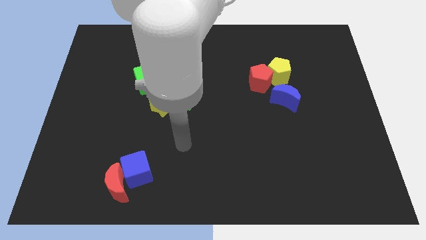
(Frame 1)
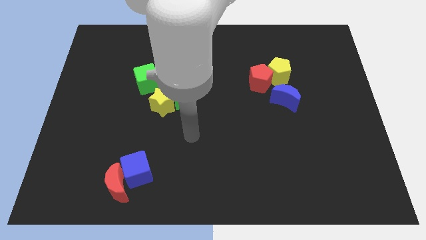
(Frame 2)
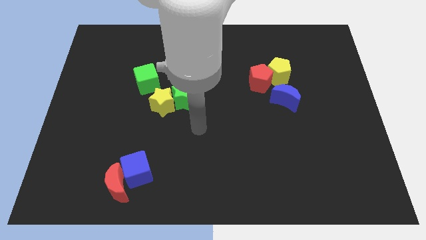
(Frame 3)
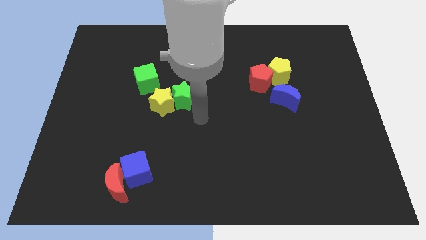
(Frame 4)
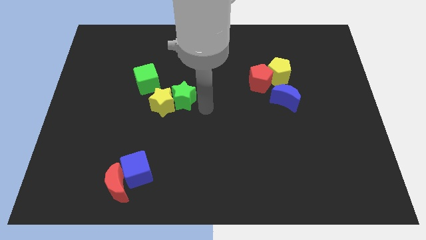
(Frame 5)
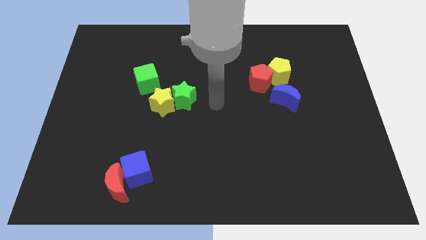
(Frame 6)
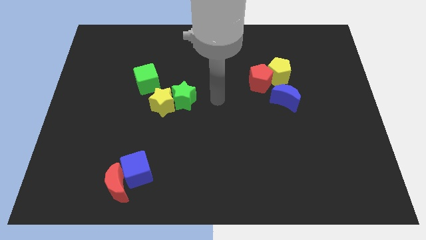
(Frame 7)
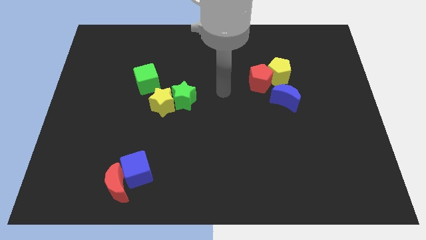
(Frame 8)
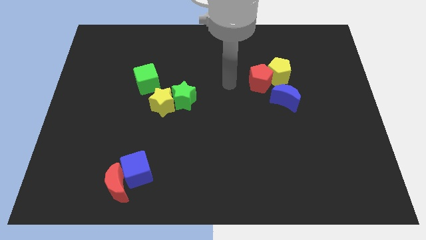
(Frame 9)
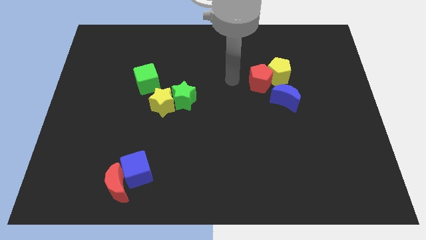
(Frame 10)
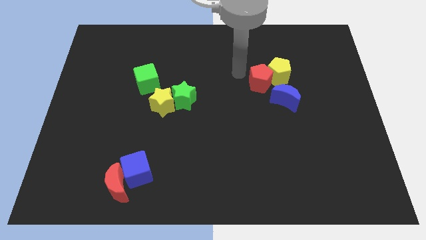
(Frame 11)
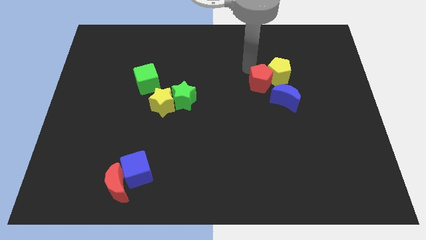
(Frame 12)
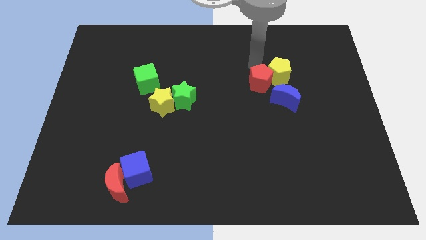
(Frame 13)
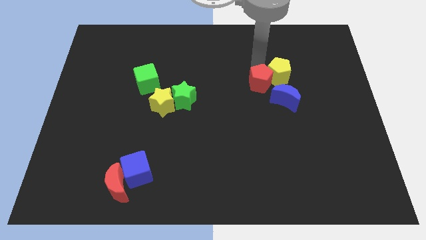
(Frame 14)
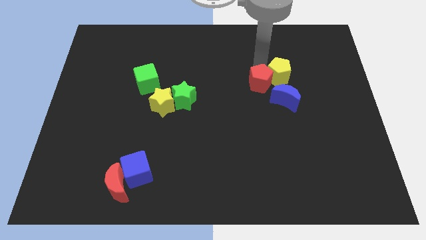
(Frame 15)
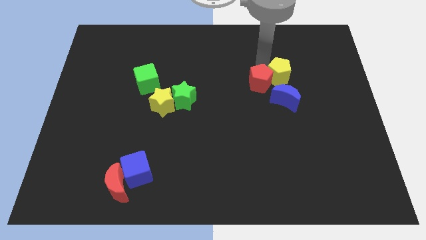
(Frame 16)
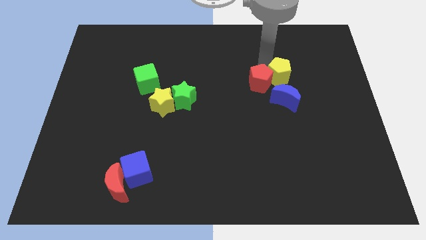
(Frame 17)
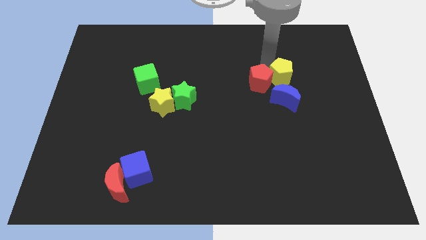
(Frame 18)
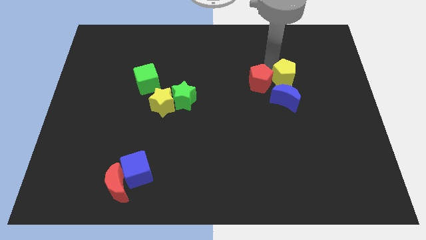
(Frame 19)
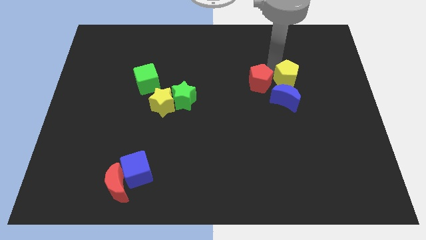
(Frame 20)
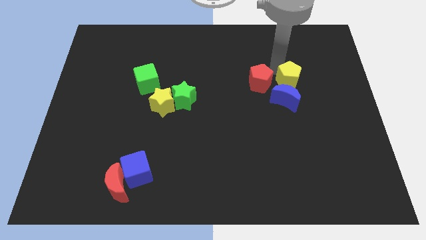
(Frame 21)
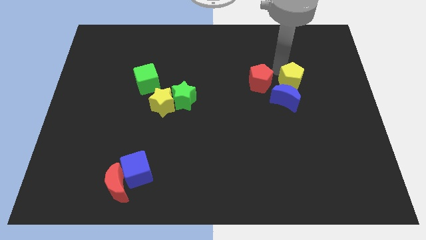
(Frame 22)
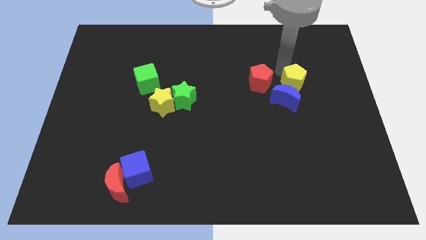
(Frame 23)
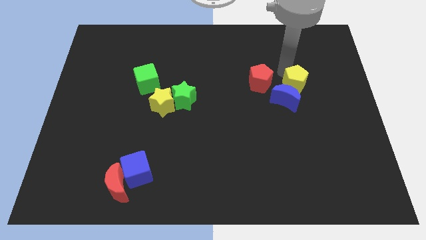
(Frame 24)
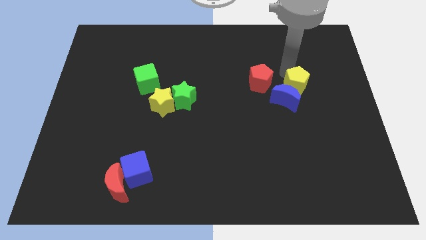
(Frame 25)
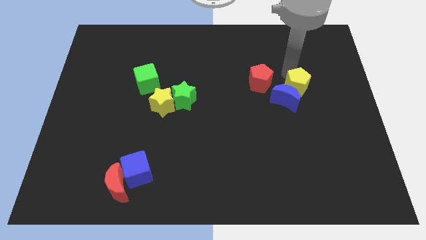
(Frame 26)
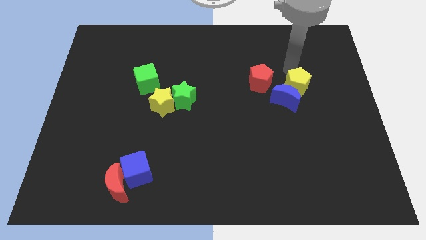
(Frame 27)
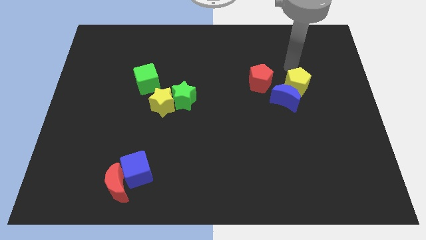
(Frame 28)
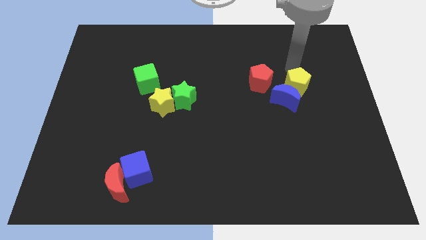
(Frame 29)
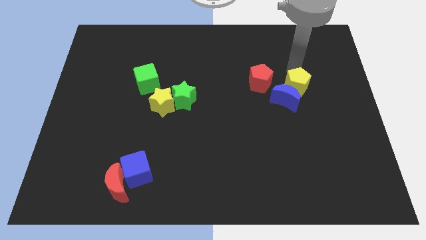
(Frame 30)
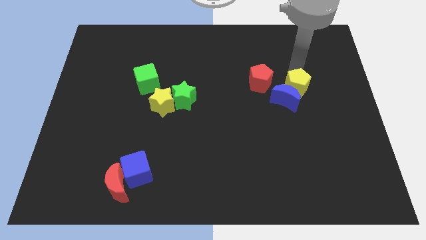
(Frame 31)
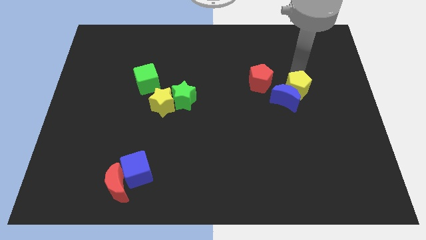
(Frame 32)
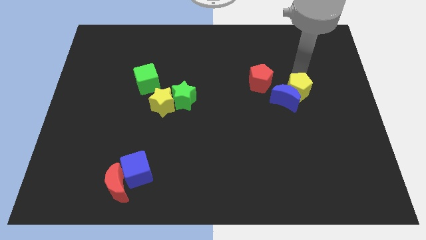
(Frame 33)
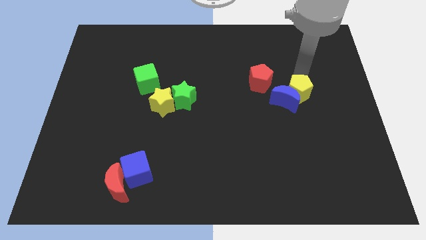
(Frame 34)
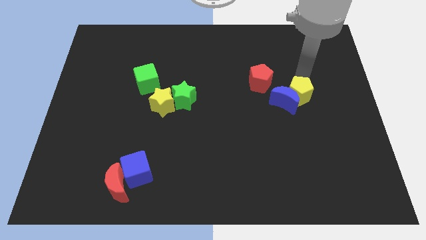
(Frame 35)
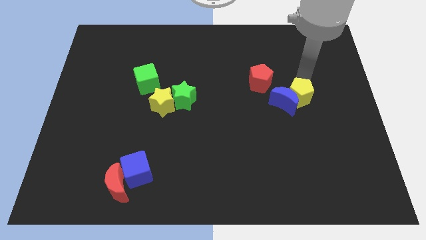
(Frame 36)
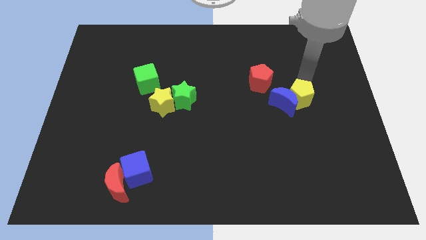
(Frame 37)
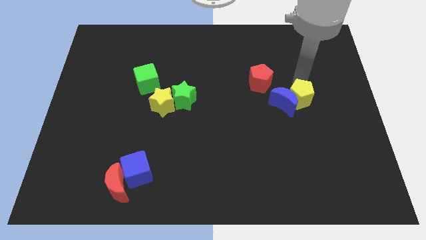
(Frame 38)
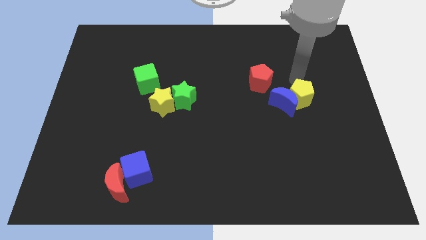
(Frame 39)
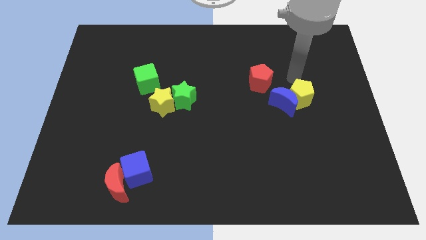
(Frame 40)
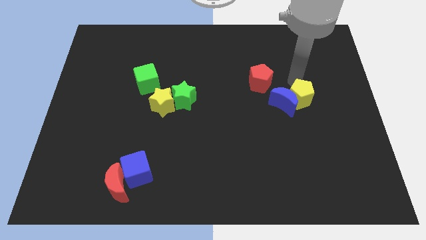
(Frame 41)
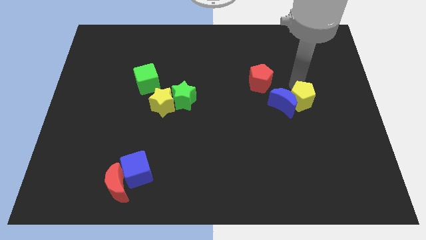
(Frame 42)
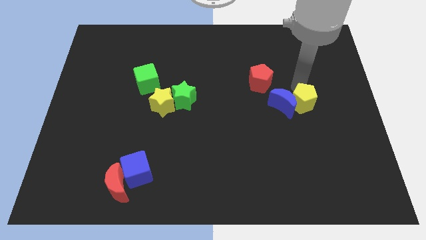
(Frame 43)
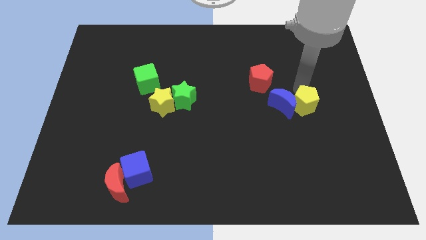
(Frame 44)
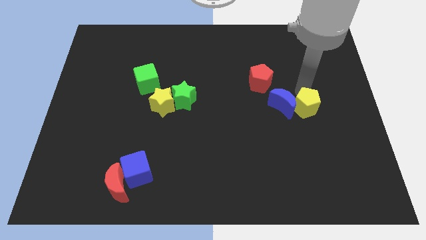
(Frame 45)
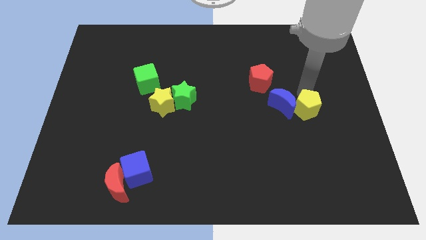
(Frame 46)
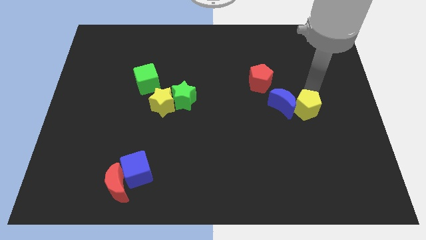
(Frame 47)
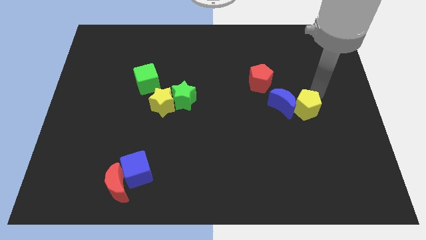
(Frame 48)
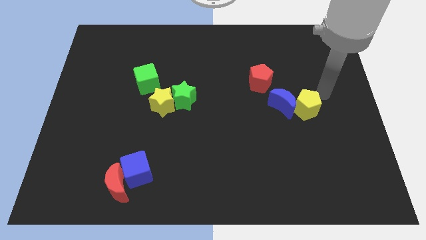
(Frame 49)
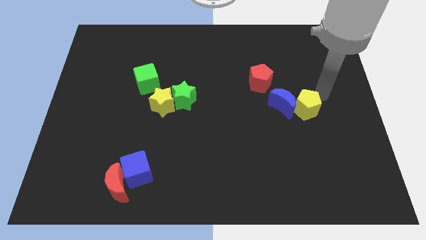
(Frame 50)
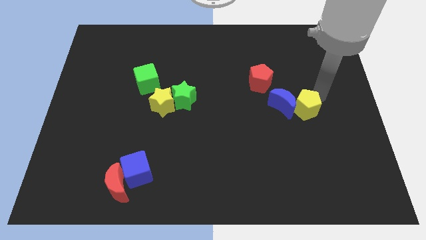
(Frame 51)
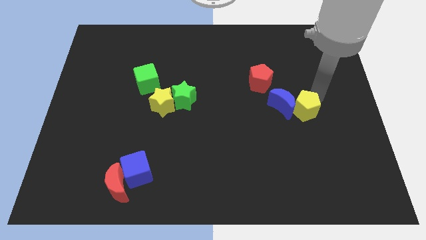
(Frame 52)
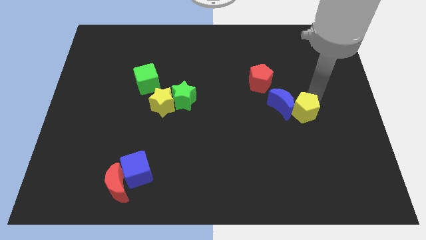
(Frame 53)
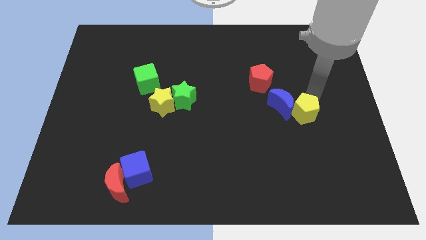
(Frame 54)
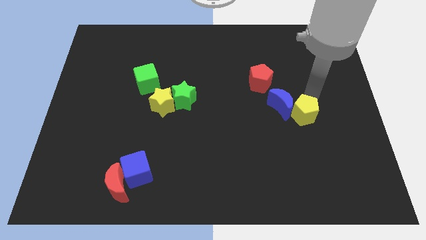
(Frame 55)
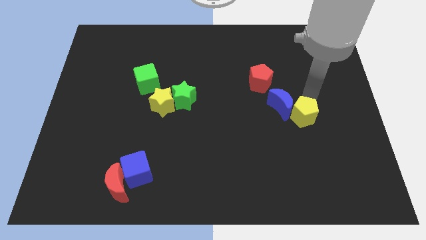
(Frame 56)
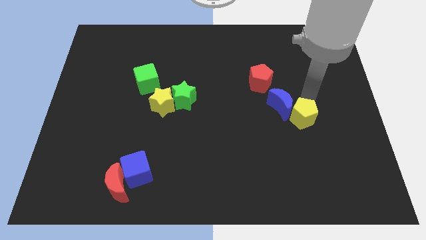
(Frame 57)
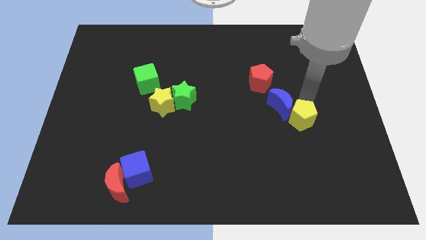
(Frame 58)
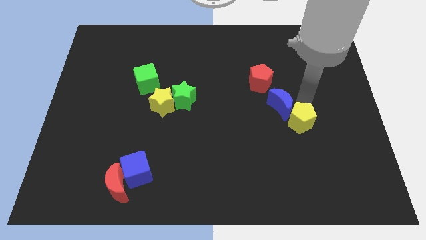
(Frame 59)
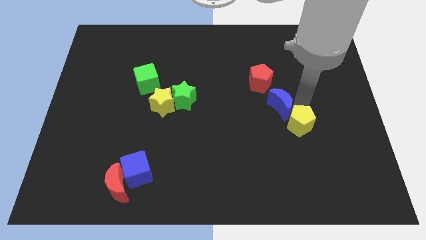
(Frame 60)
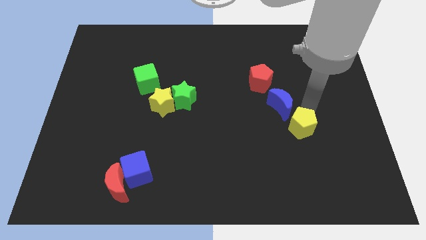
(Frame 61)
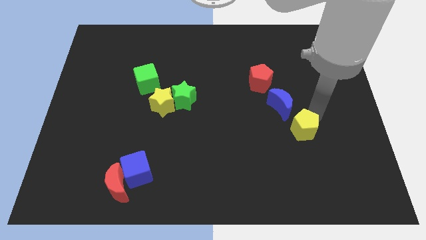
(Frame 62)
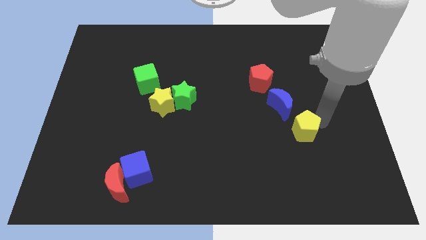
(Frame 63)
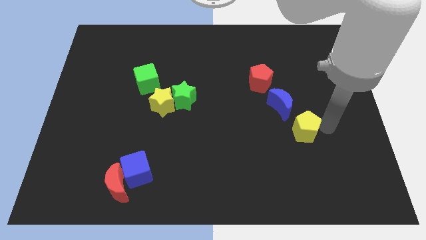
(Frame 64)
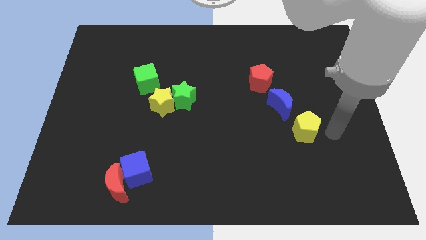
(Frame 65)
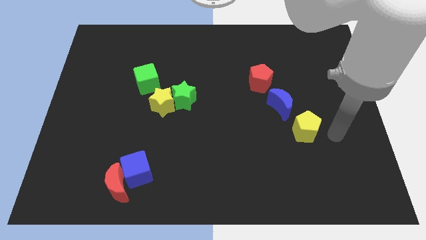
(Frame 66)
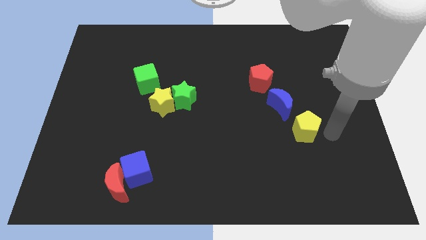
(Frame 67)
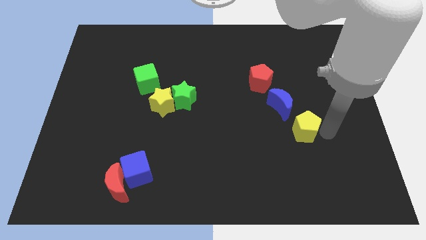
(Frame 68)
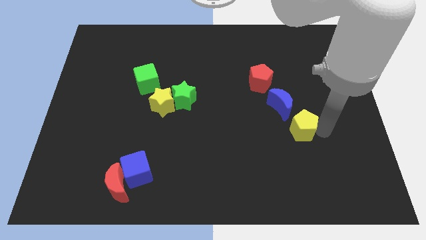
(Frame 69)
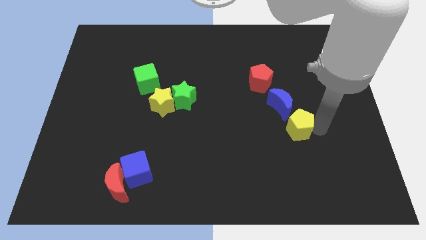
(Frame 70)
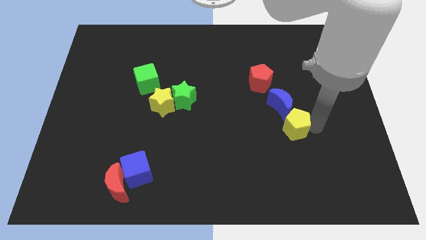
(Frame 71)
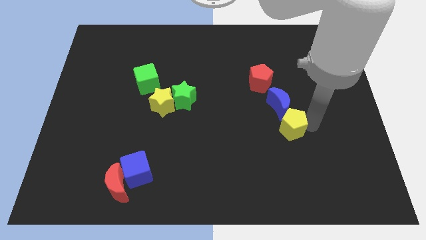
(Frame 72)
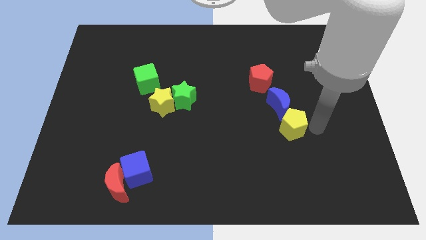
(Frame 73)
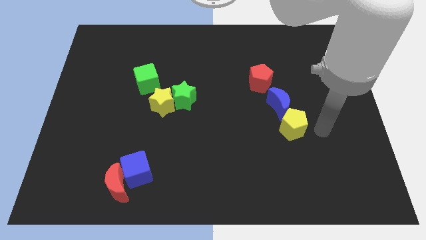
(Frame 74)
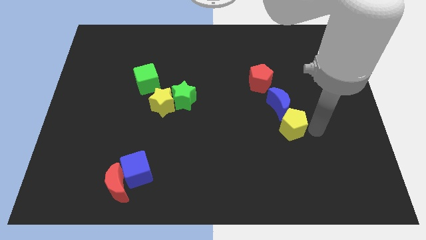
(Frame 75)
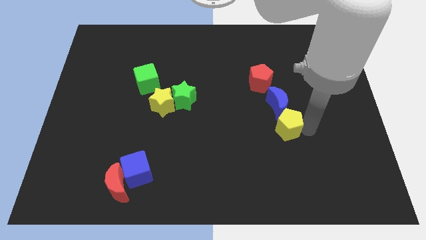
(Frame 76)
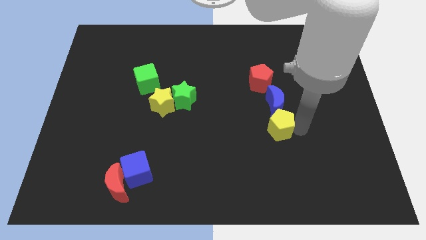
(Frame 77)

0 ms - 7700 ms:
slide the yellow pentagon diagonally down and to the left of the blue moon

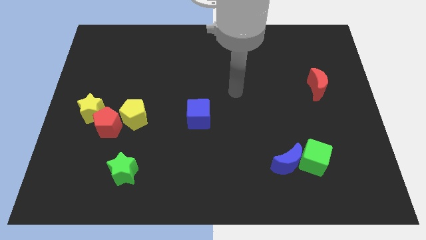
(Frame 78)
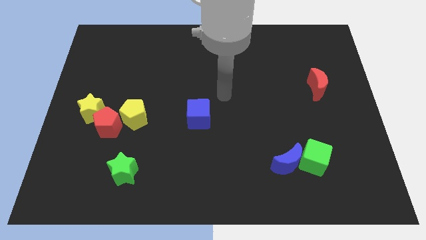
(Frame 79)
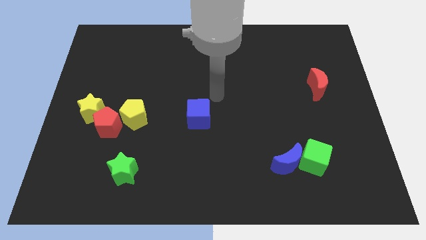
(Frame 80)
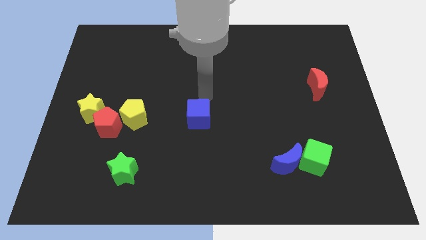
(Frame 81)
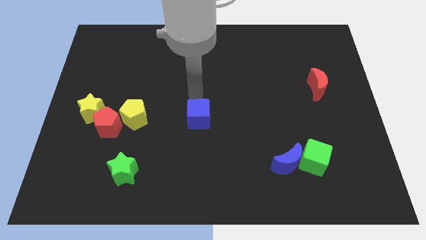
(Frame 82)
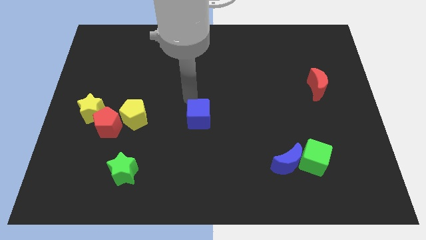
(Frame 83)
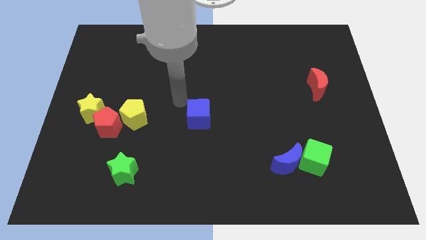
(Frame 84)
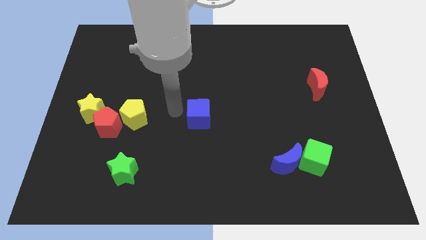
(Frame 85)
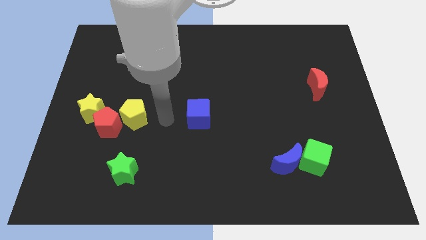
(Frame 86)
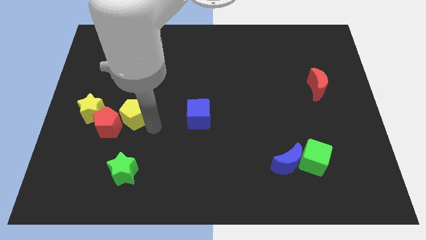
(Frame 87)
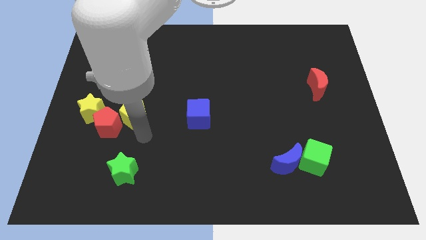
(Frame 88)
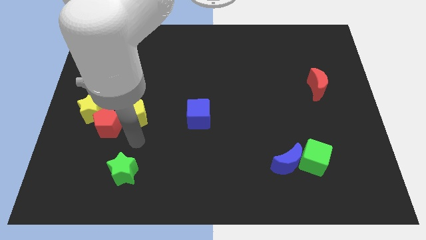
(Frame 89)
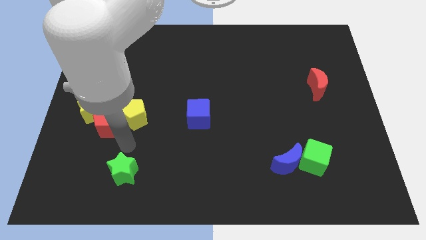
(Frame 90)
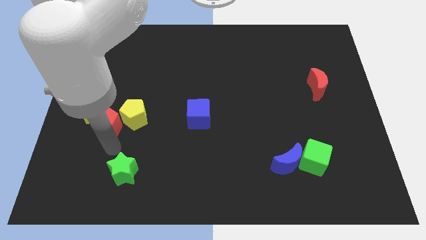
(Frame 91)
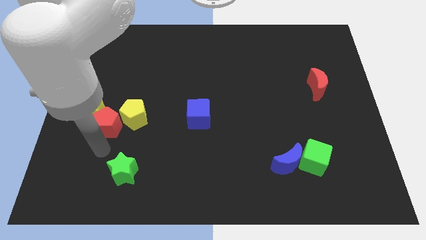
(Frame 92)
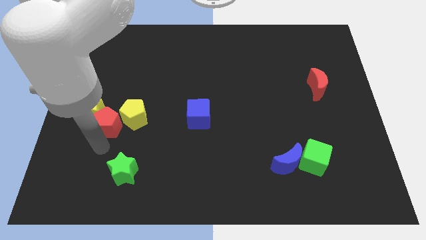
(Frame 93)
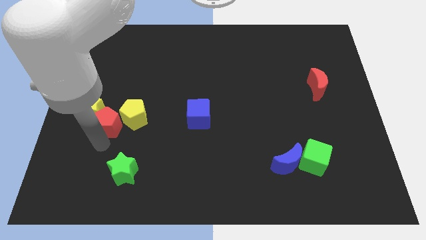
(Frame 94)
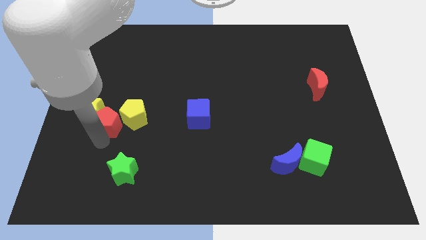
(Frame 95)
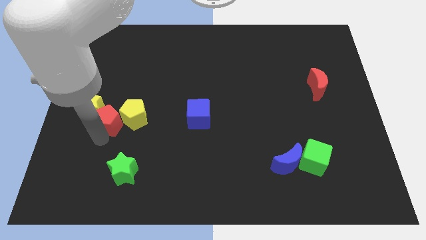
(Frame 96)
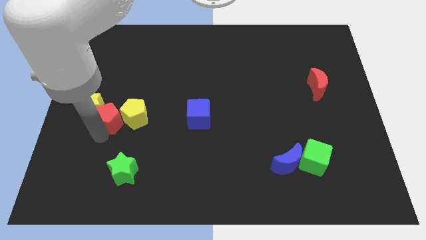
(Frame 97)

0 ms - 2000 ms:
move the red pentagon to the top left side of the yellow pentagon
